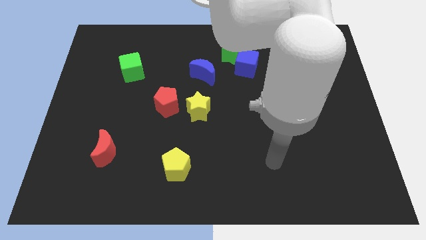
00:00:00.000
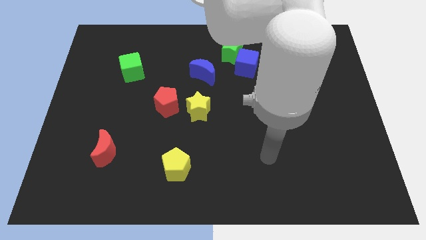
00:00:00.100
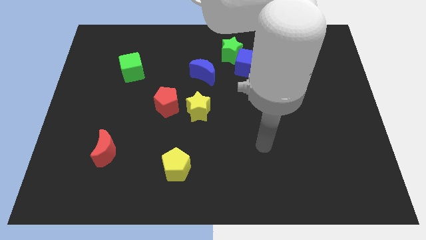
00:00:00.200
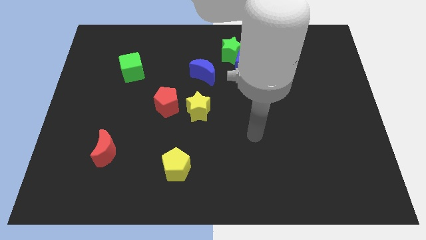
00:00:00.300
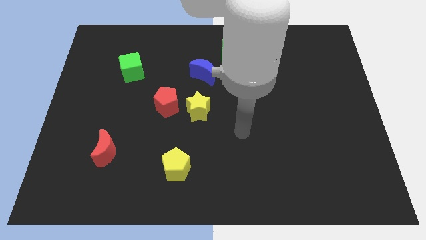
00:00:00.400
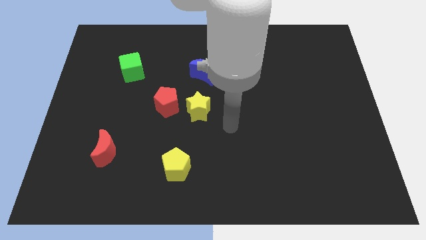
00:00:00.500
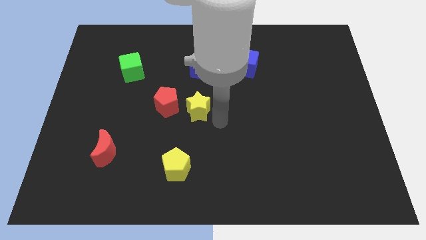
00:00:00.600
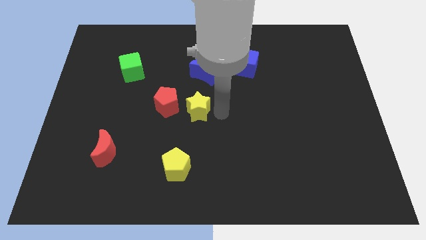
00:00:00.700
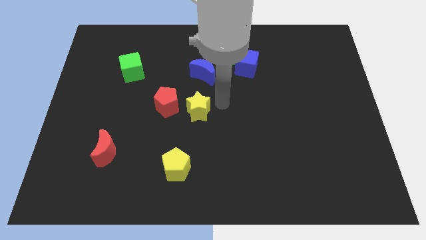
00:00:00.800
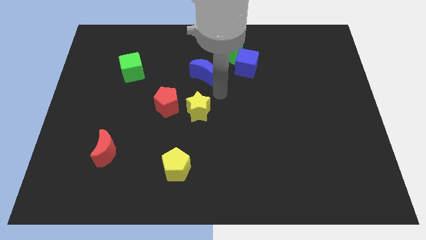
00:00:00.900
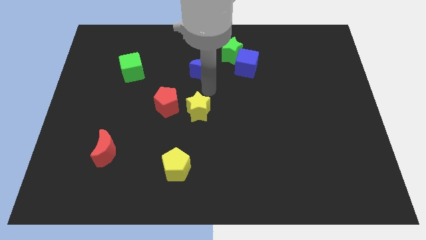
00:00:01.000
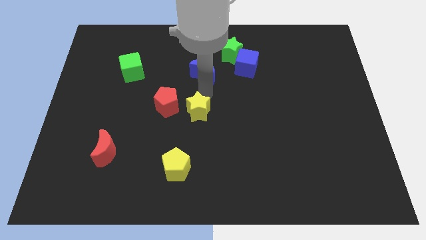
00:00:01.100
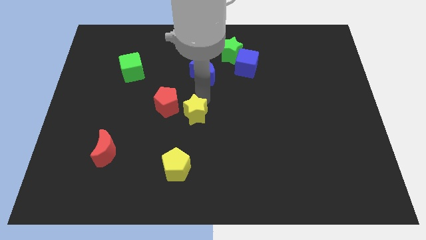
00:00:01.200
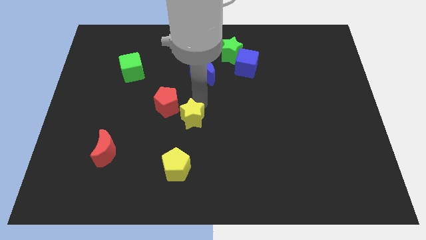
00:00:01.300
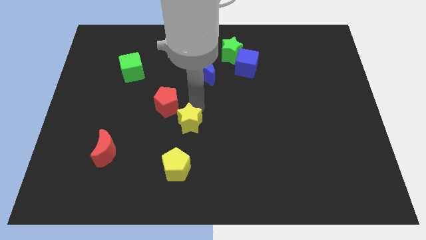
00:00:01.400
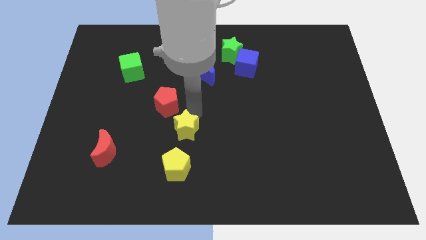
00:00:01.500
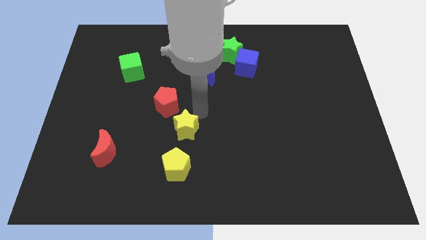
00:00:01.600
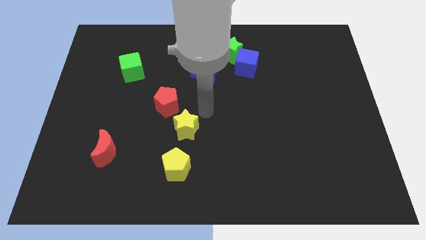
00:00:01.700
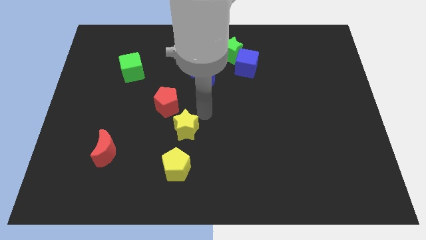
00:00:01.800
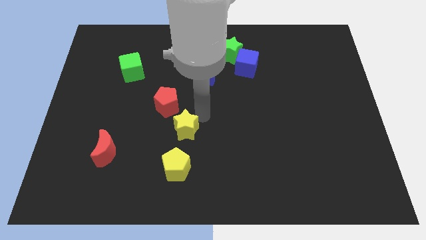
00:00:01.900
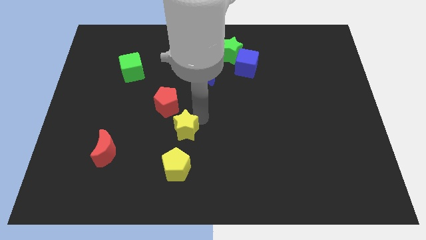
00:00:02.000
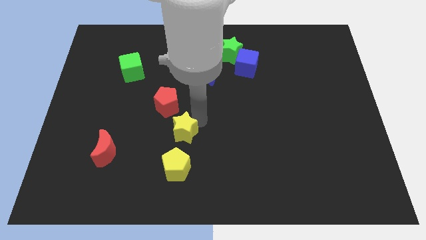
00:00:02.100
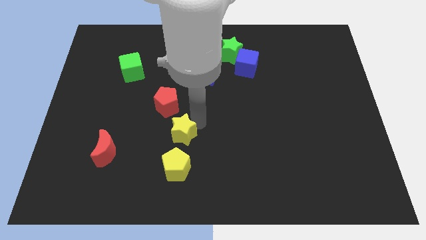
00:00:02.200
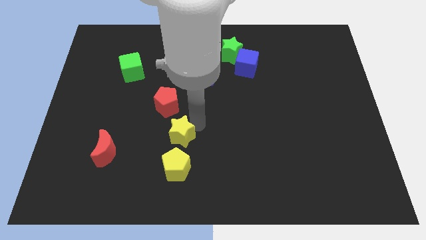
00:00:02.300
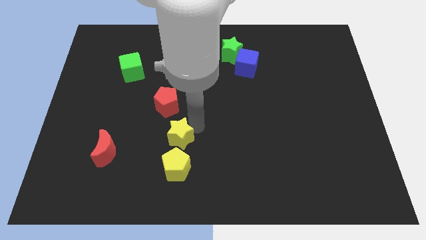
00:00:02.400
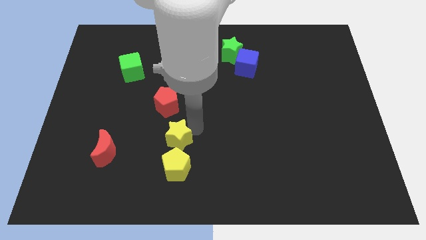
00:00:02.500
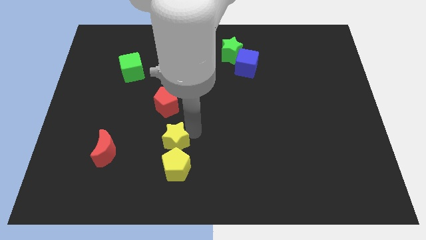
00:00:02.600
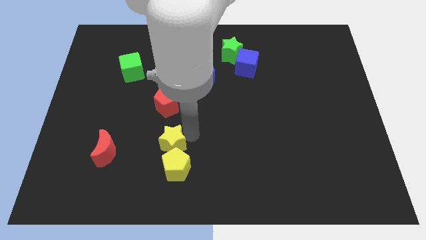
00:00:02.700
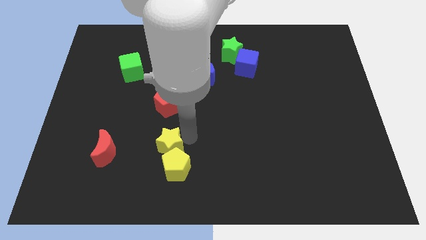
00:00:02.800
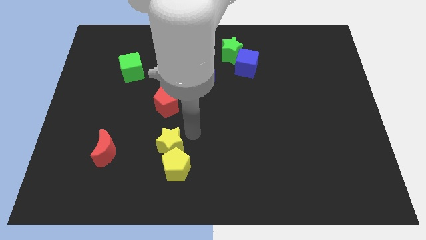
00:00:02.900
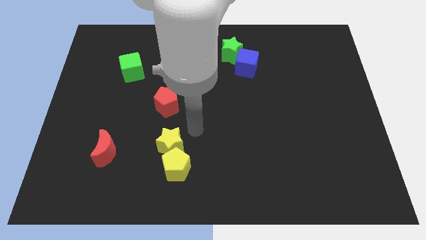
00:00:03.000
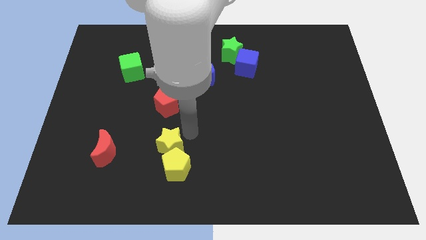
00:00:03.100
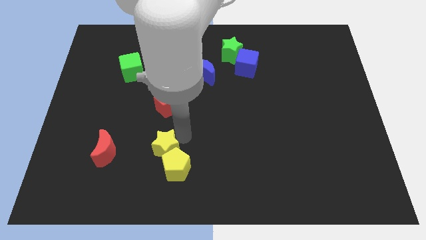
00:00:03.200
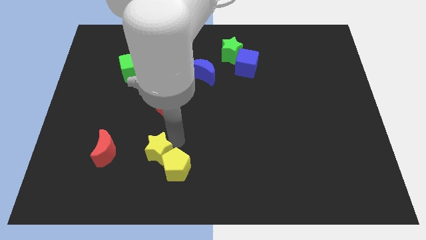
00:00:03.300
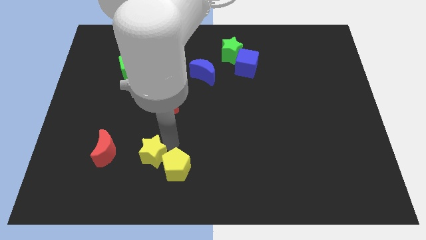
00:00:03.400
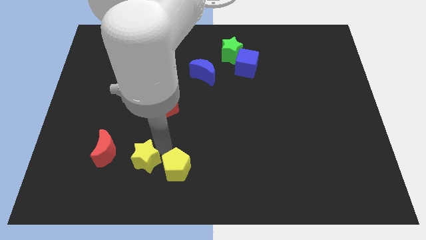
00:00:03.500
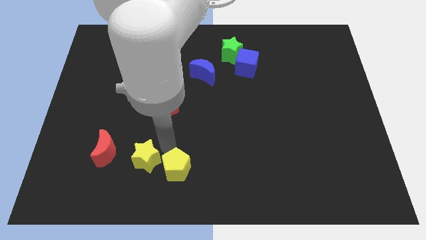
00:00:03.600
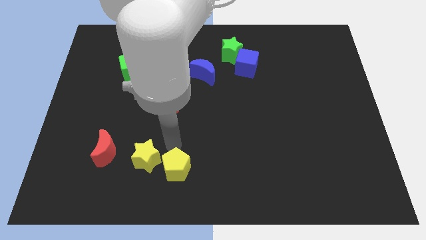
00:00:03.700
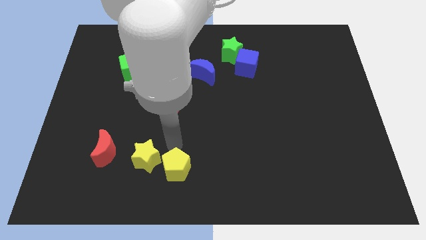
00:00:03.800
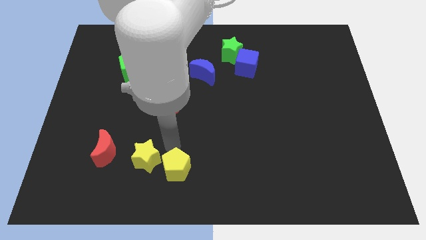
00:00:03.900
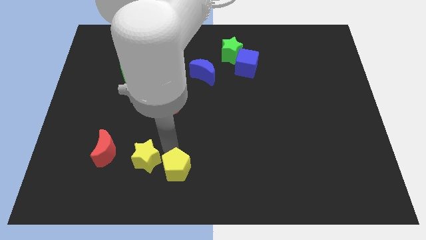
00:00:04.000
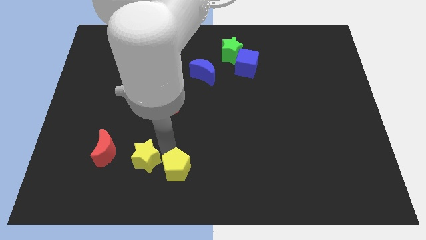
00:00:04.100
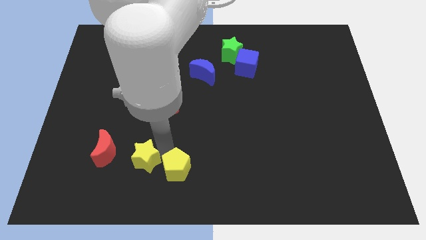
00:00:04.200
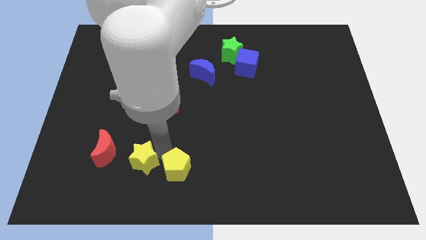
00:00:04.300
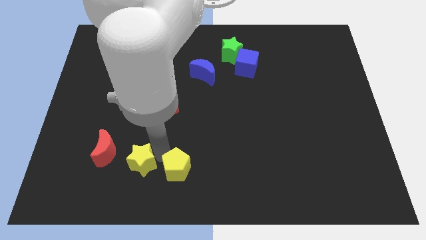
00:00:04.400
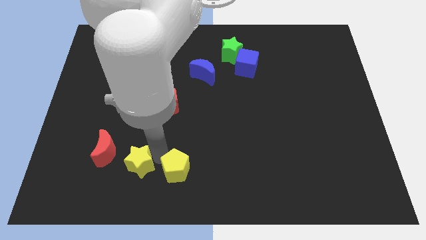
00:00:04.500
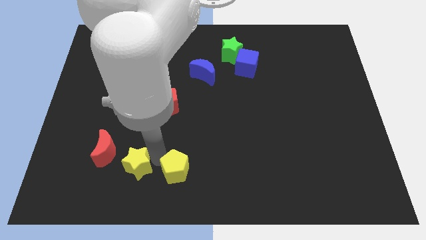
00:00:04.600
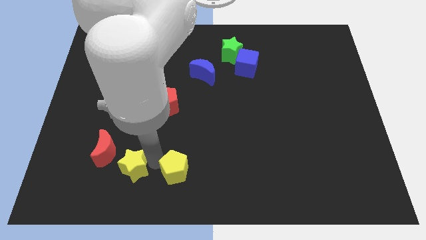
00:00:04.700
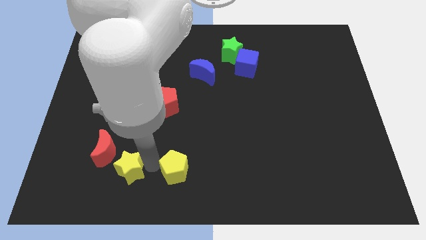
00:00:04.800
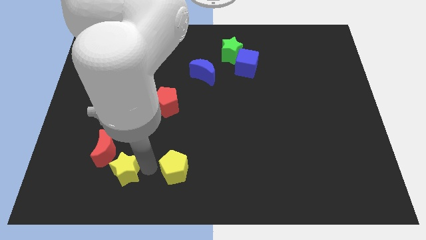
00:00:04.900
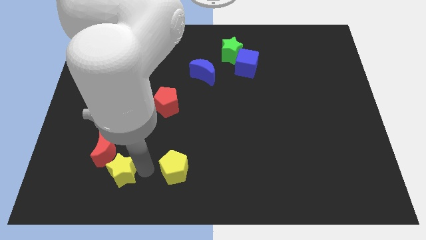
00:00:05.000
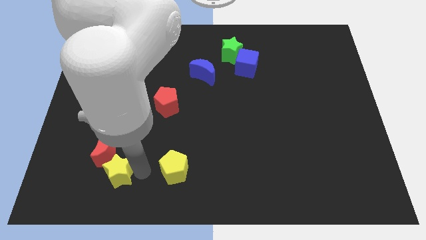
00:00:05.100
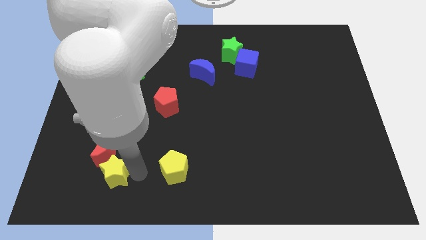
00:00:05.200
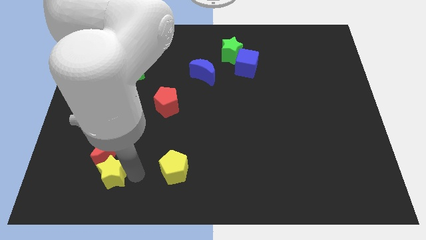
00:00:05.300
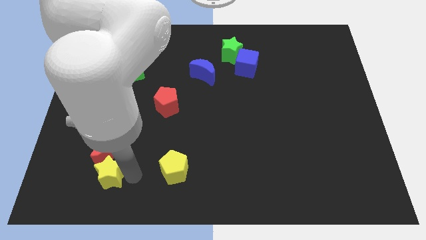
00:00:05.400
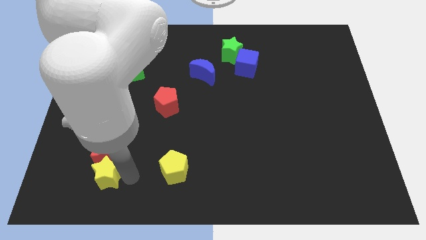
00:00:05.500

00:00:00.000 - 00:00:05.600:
push the yellow star diagonally down and to the left of the red moon

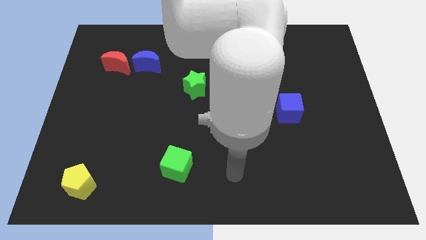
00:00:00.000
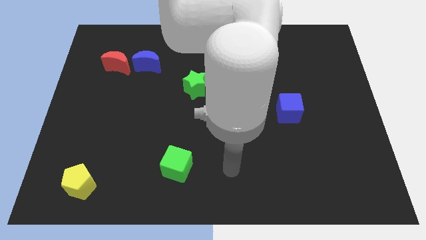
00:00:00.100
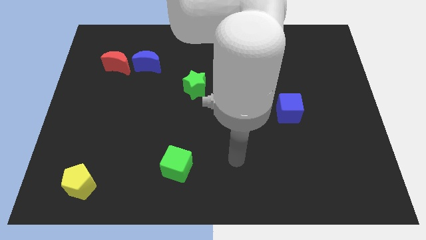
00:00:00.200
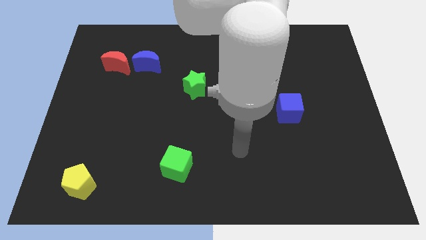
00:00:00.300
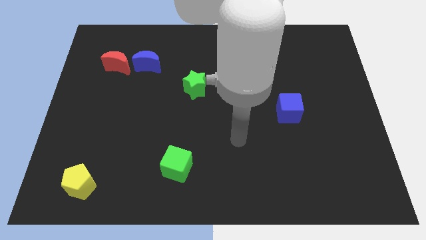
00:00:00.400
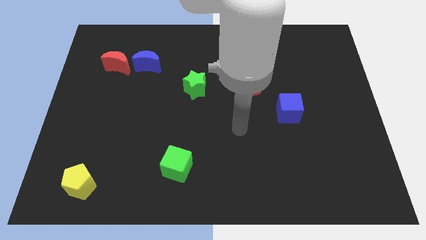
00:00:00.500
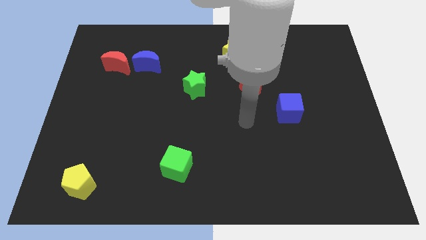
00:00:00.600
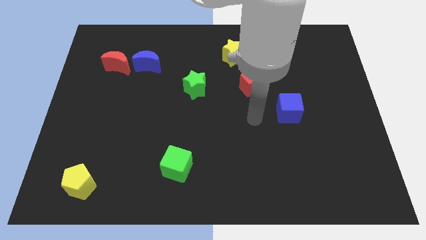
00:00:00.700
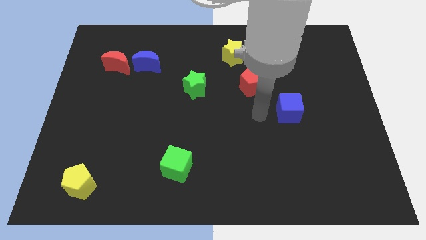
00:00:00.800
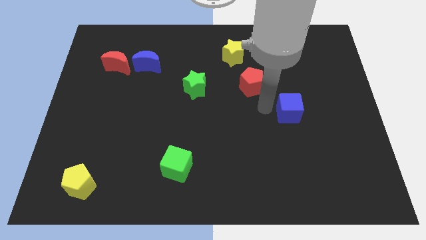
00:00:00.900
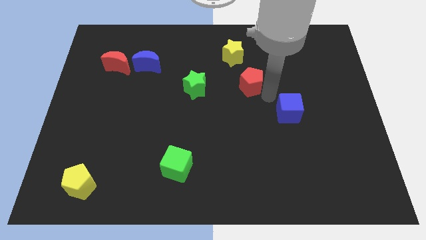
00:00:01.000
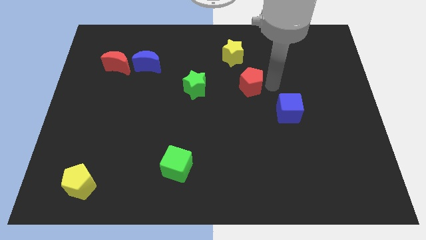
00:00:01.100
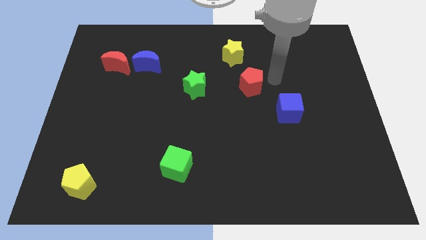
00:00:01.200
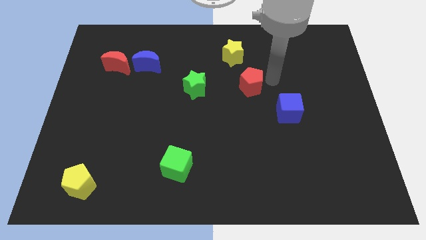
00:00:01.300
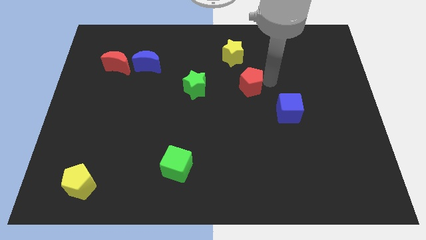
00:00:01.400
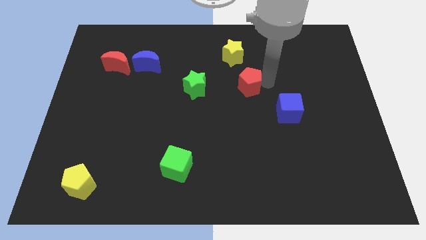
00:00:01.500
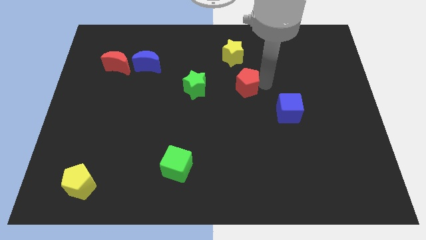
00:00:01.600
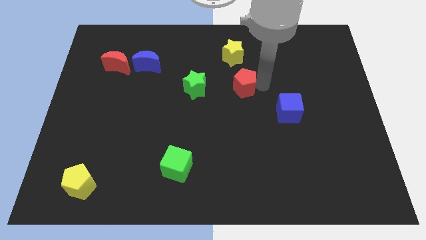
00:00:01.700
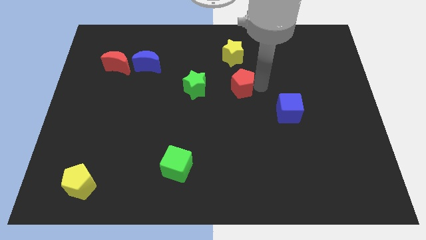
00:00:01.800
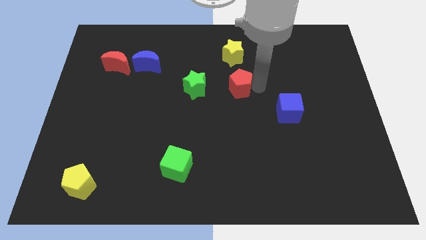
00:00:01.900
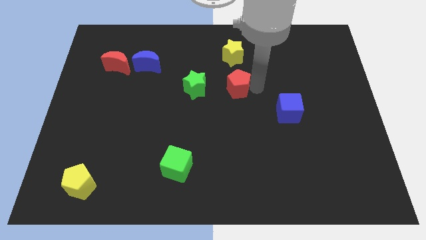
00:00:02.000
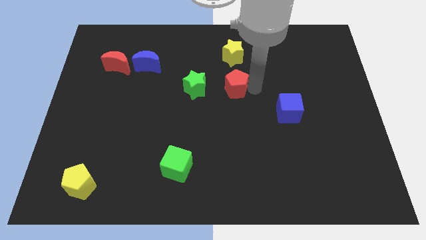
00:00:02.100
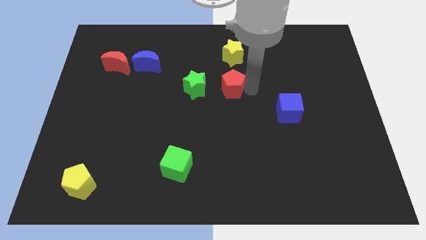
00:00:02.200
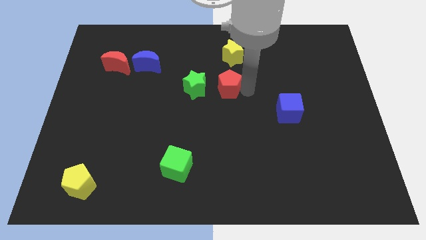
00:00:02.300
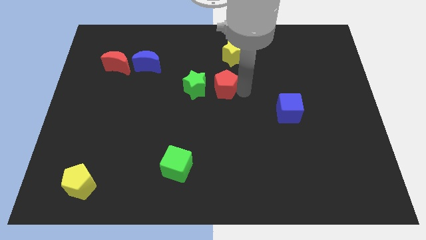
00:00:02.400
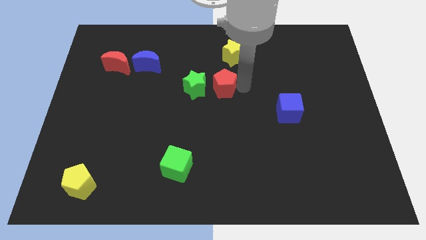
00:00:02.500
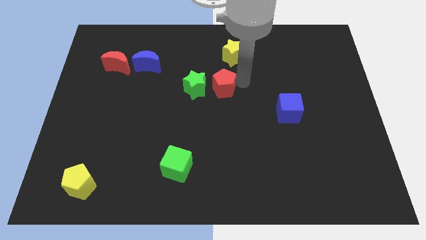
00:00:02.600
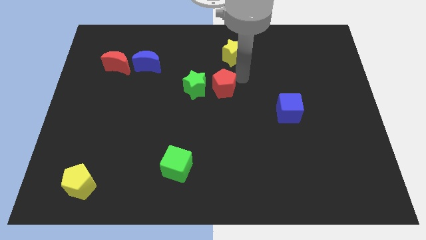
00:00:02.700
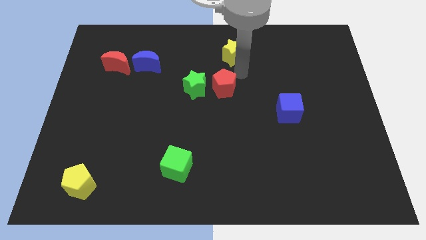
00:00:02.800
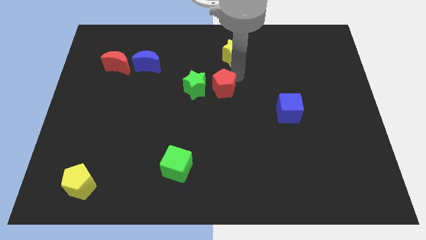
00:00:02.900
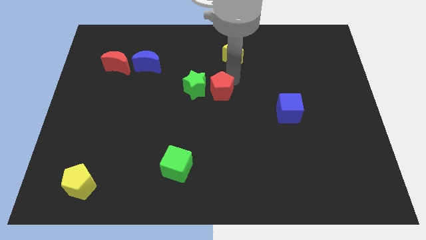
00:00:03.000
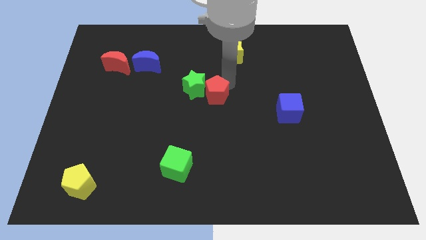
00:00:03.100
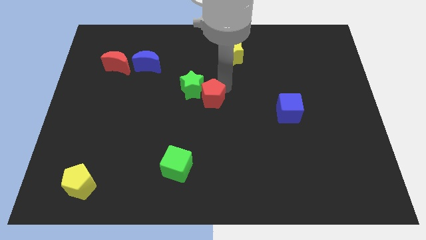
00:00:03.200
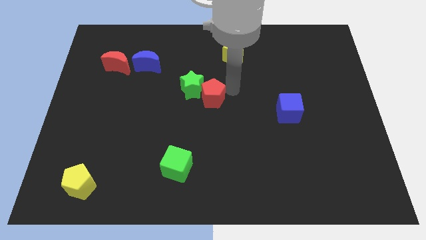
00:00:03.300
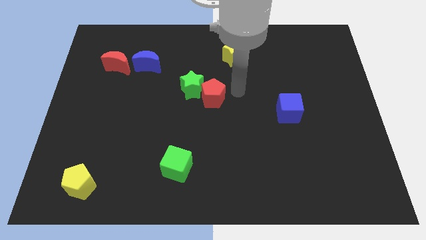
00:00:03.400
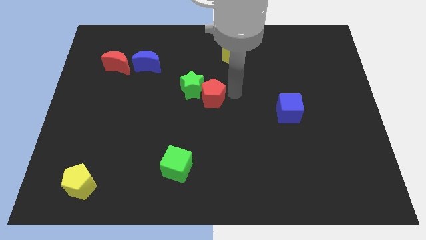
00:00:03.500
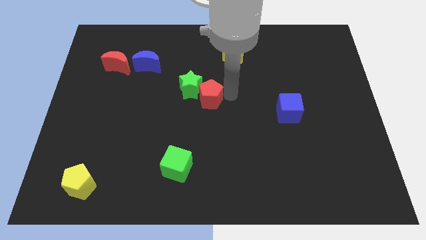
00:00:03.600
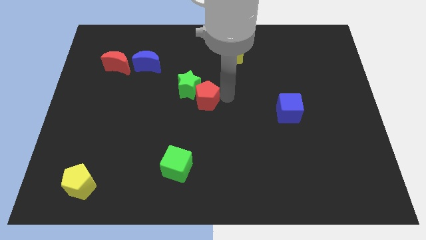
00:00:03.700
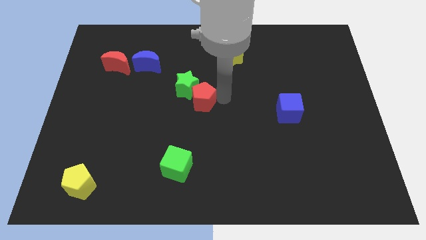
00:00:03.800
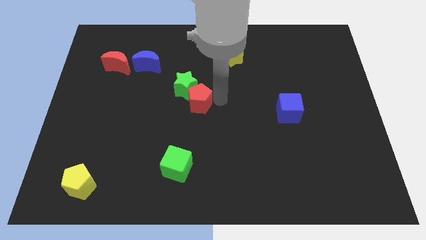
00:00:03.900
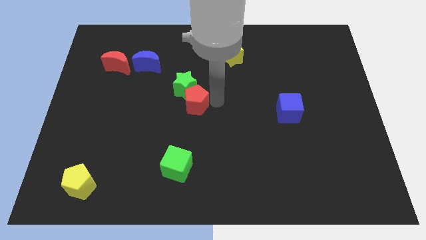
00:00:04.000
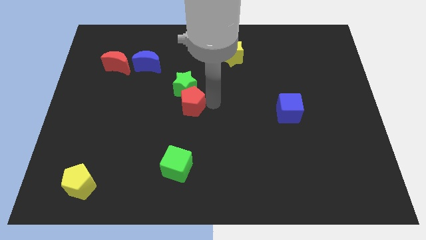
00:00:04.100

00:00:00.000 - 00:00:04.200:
put the red pentagon to the bottom left side of the green star
